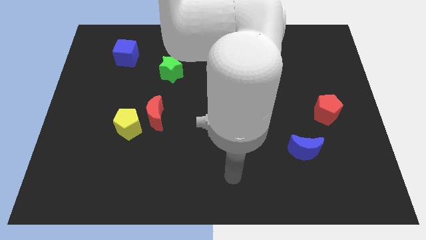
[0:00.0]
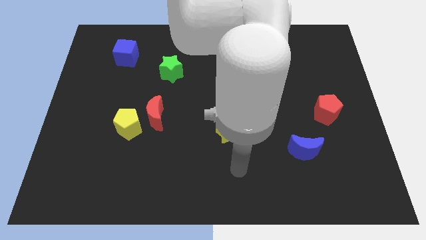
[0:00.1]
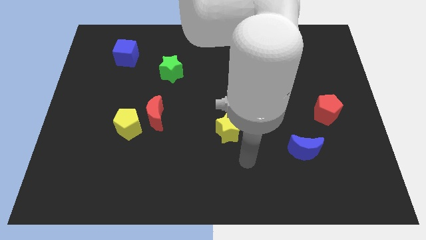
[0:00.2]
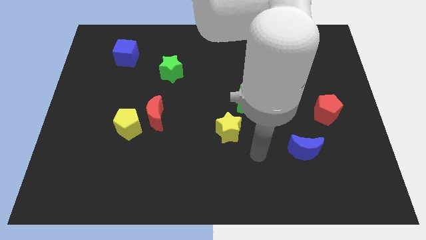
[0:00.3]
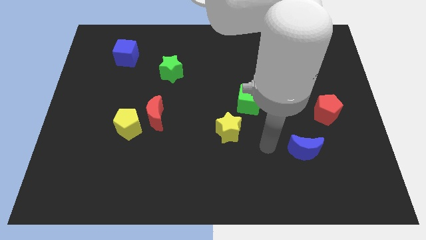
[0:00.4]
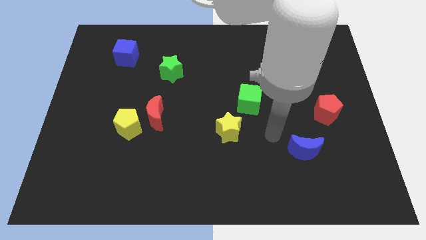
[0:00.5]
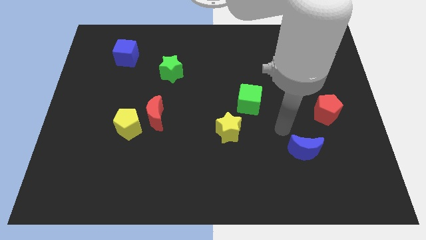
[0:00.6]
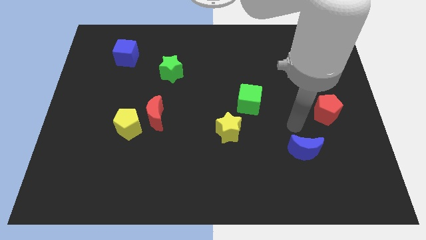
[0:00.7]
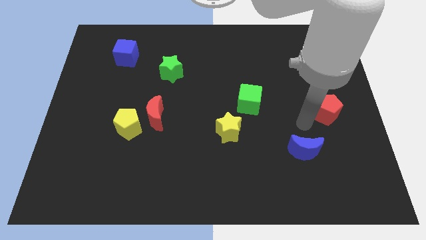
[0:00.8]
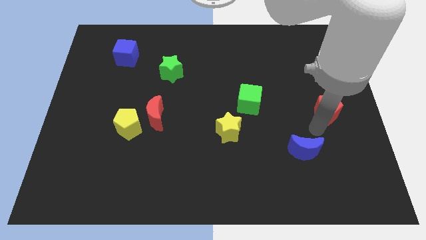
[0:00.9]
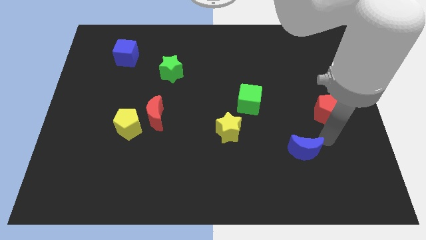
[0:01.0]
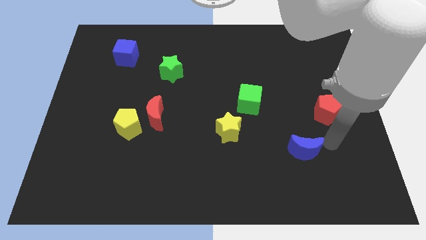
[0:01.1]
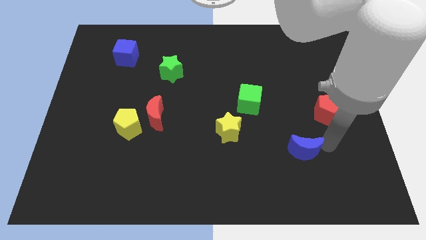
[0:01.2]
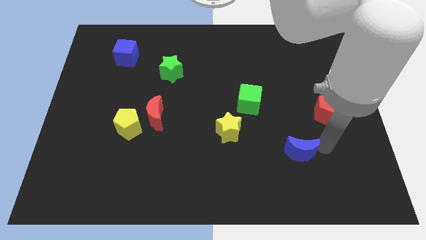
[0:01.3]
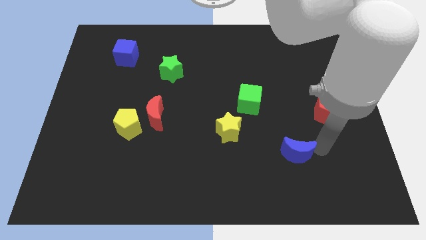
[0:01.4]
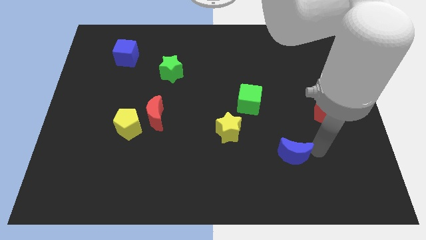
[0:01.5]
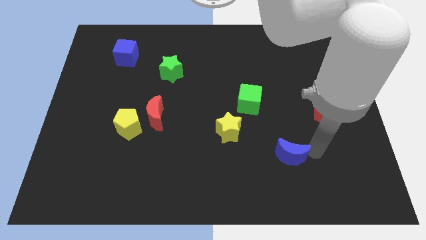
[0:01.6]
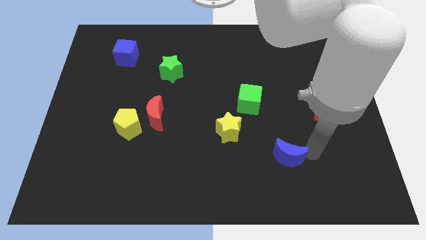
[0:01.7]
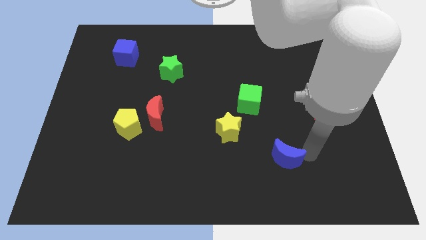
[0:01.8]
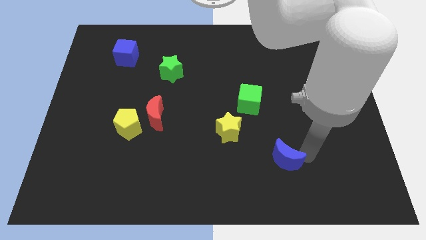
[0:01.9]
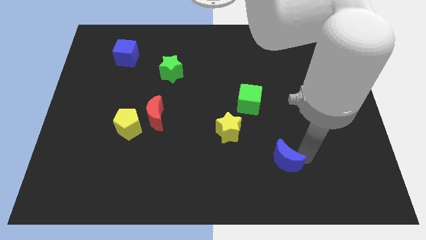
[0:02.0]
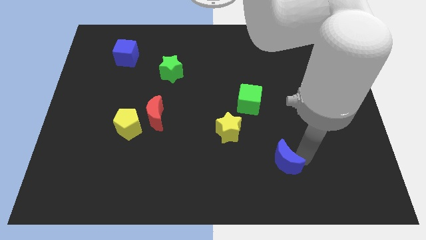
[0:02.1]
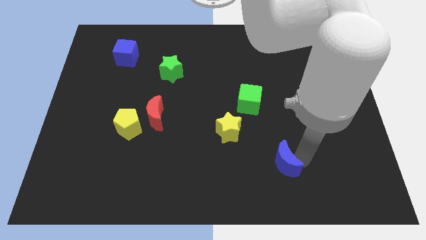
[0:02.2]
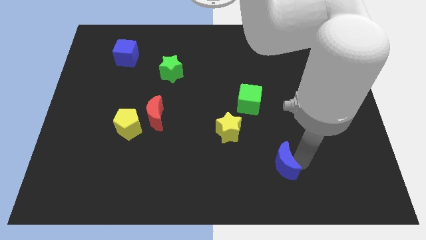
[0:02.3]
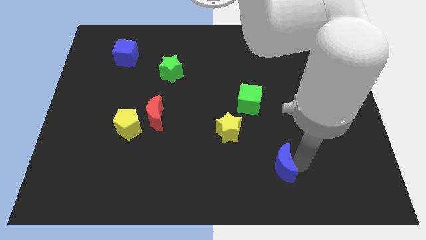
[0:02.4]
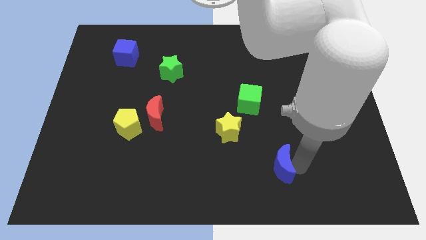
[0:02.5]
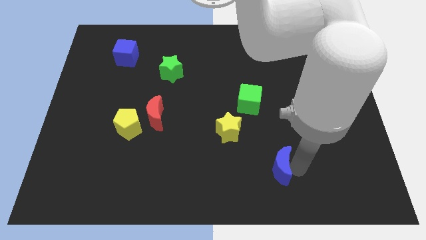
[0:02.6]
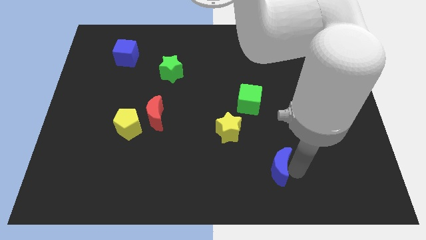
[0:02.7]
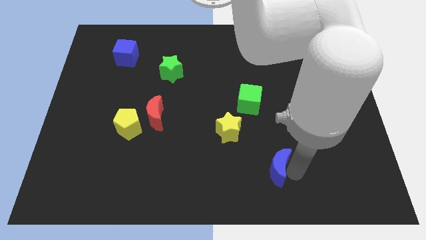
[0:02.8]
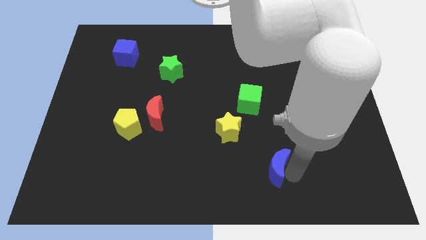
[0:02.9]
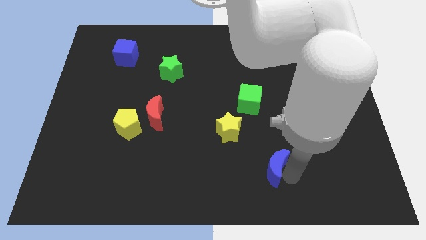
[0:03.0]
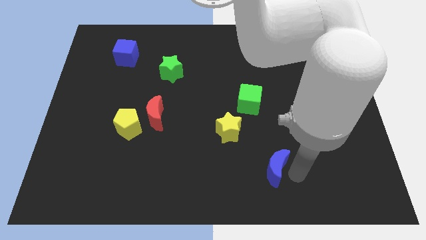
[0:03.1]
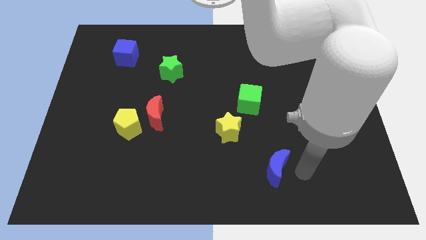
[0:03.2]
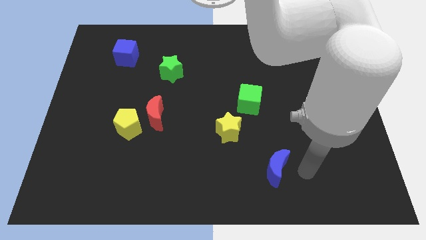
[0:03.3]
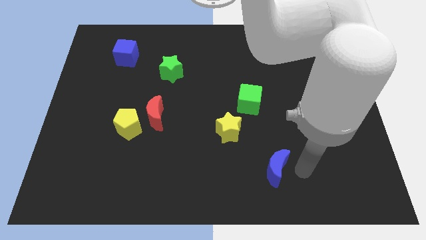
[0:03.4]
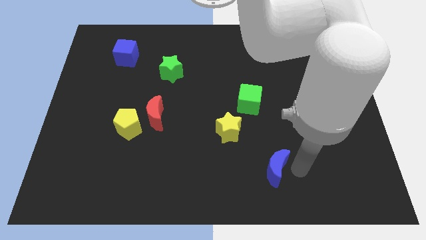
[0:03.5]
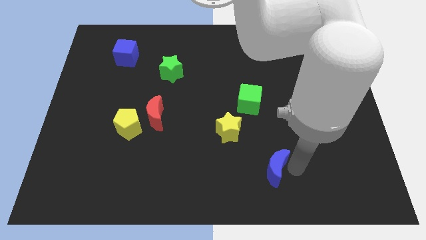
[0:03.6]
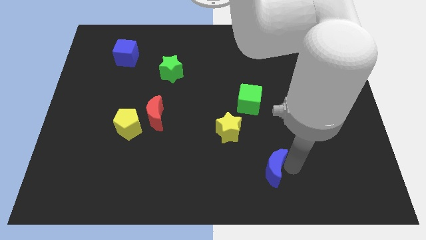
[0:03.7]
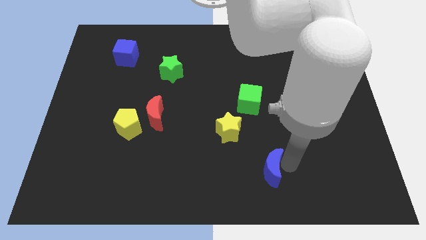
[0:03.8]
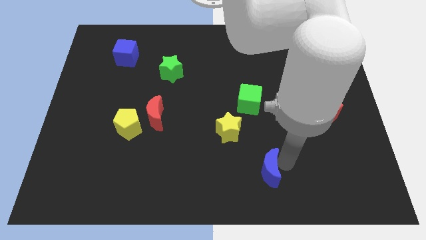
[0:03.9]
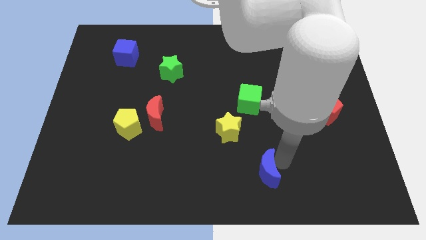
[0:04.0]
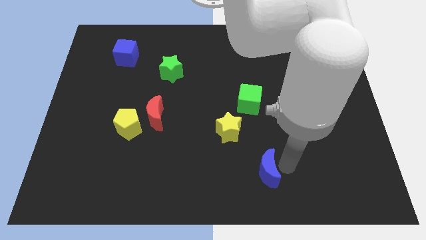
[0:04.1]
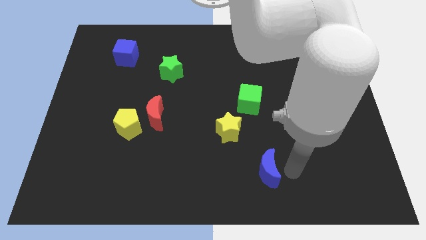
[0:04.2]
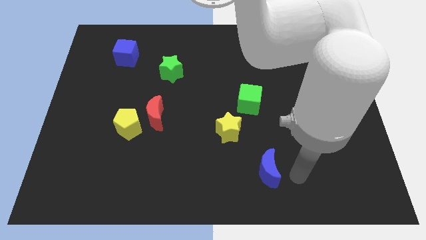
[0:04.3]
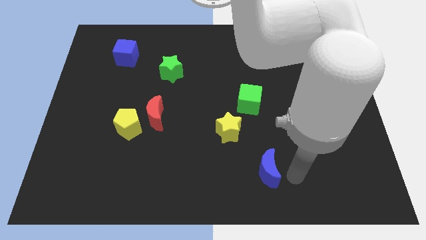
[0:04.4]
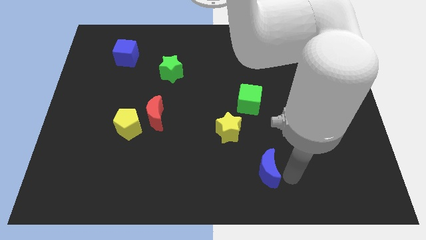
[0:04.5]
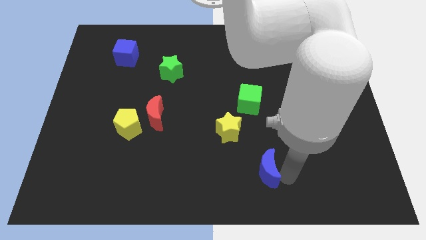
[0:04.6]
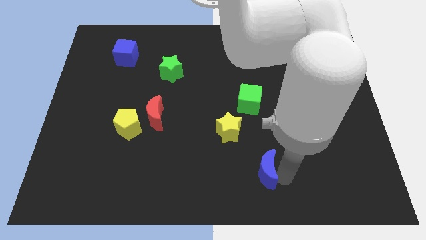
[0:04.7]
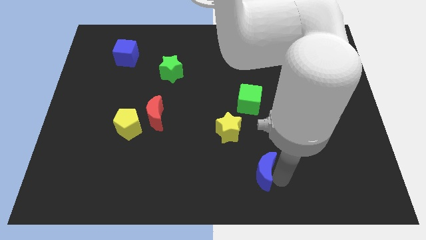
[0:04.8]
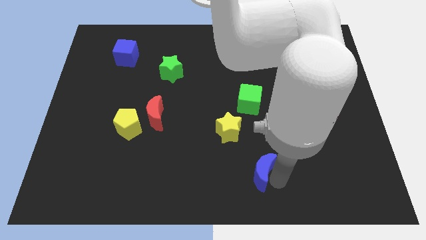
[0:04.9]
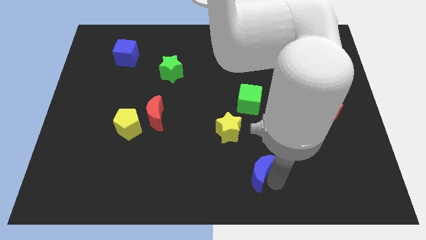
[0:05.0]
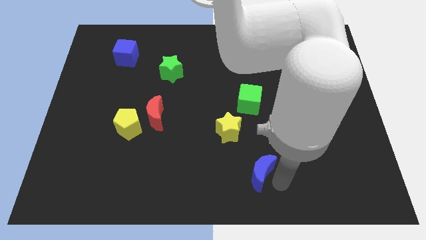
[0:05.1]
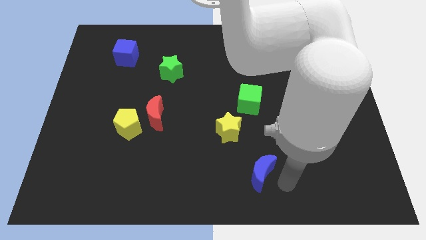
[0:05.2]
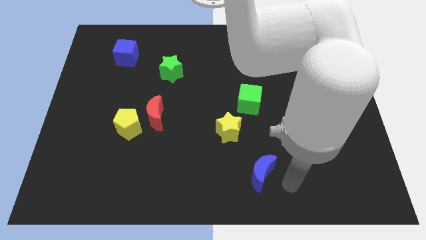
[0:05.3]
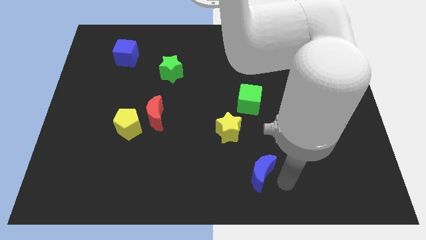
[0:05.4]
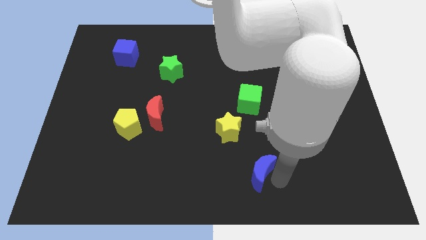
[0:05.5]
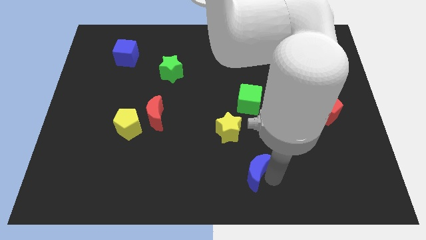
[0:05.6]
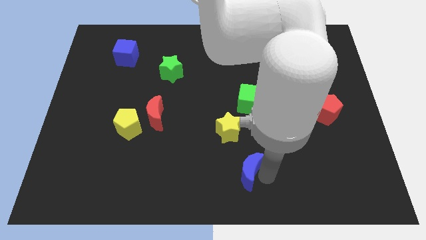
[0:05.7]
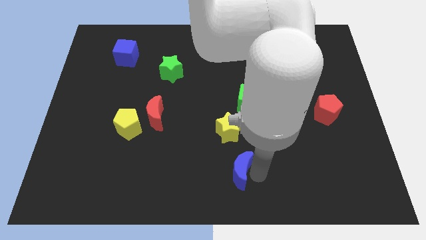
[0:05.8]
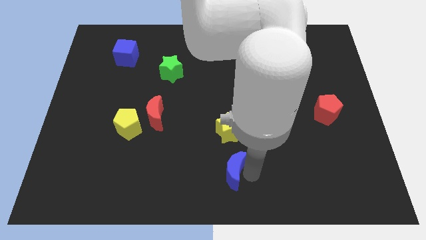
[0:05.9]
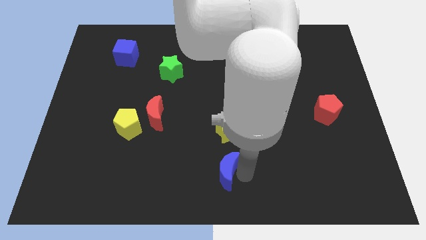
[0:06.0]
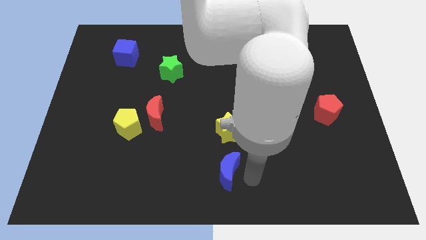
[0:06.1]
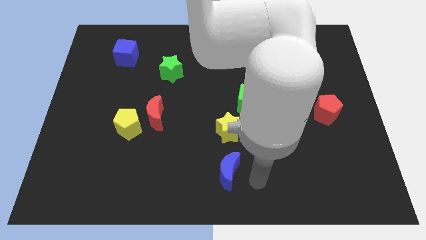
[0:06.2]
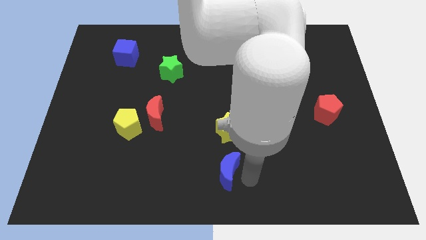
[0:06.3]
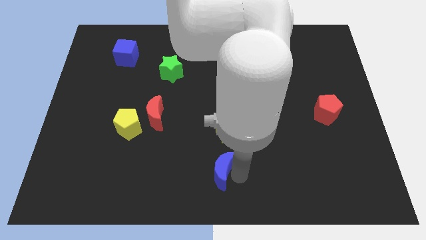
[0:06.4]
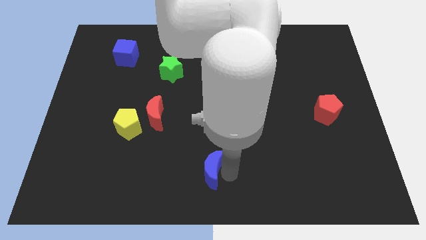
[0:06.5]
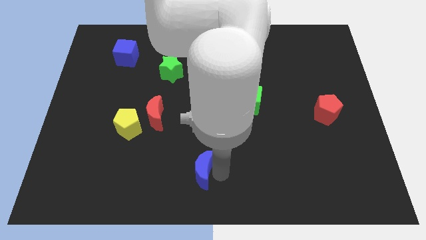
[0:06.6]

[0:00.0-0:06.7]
slide the blue moon to the left

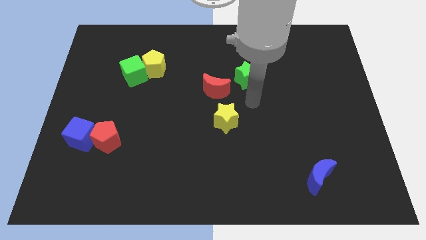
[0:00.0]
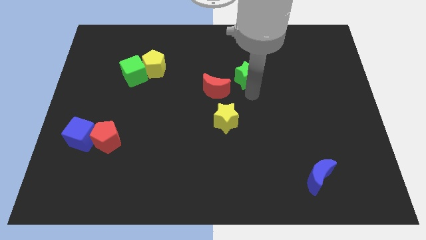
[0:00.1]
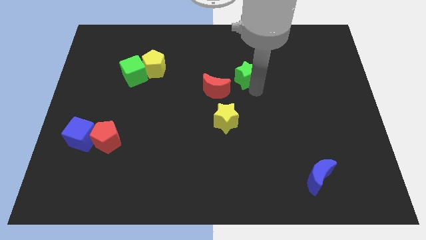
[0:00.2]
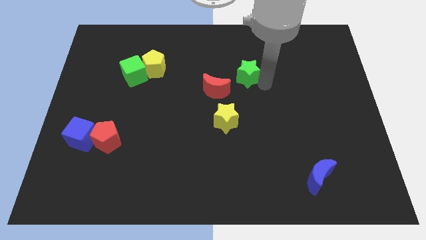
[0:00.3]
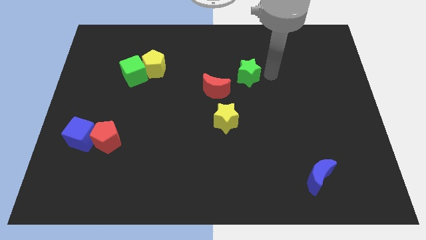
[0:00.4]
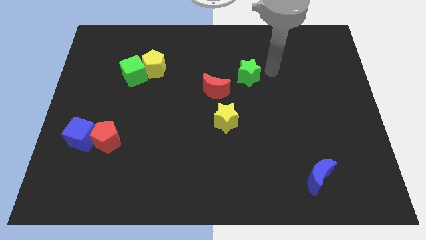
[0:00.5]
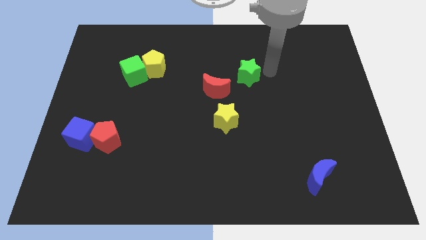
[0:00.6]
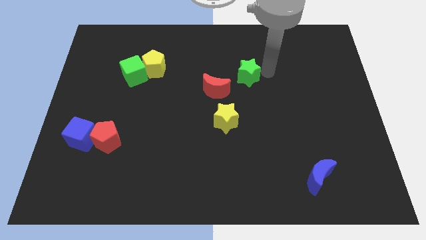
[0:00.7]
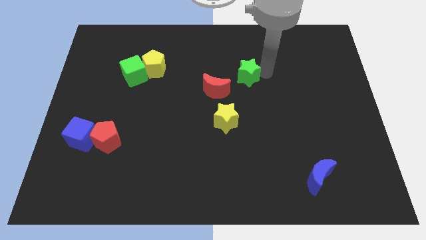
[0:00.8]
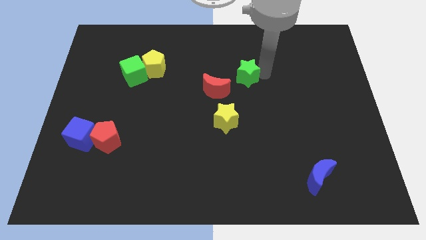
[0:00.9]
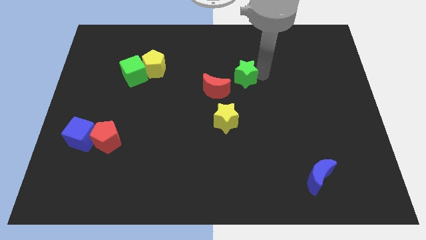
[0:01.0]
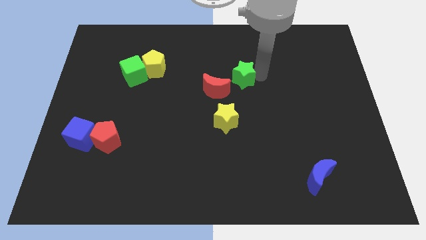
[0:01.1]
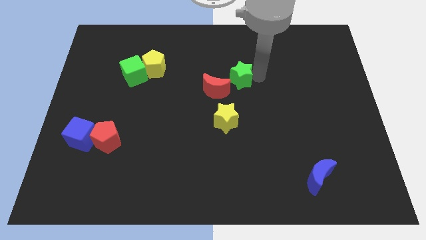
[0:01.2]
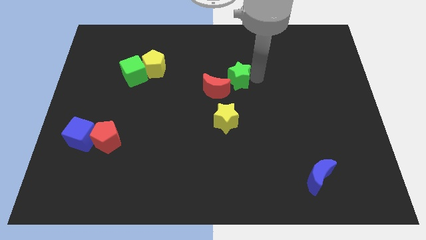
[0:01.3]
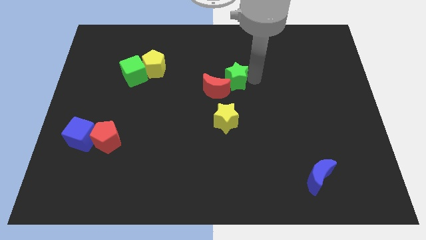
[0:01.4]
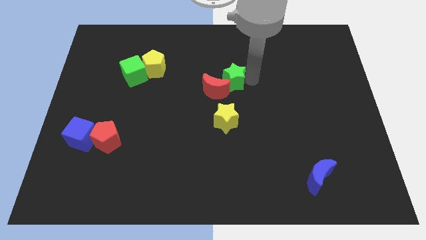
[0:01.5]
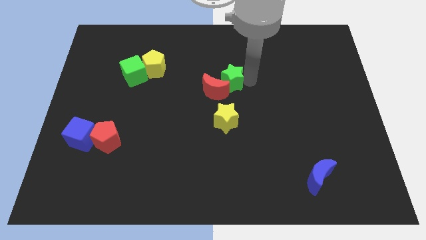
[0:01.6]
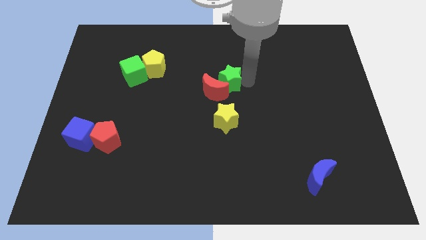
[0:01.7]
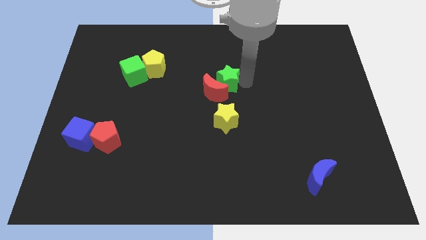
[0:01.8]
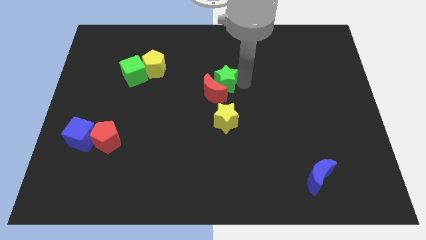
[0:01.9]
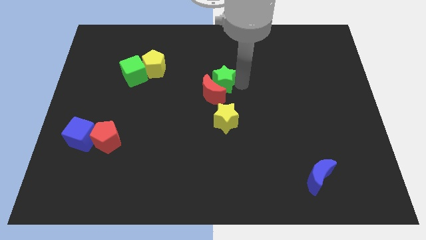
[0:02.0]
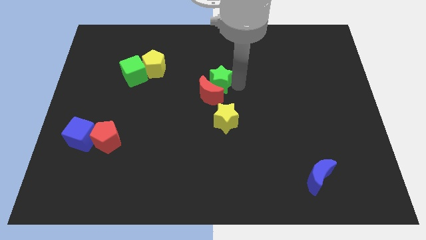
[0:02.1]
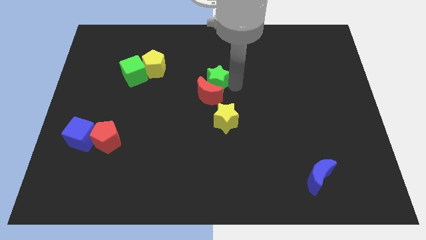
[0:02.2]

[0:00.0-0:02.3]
push the green star left a bit
